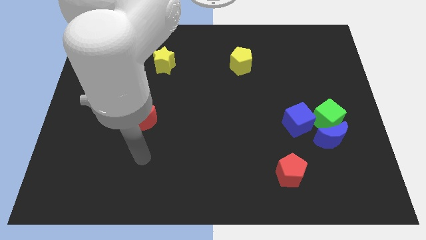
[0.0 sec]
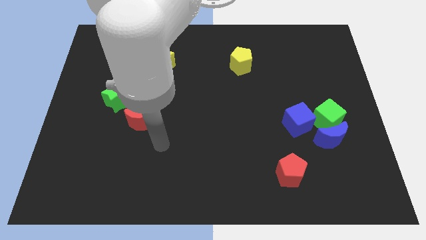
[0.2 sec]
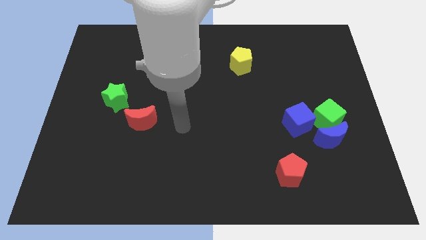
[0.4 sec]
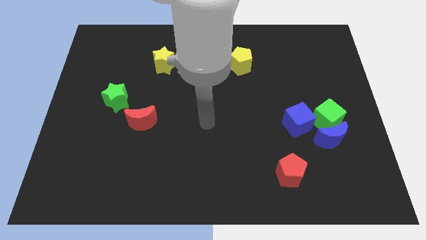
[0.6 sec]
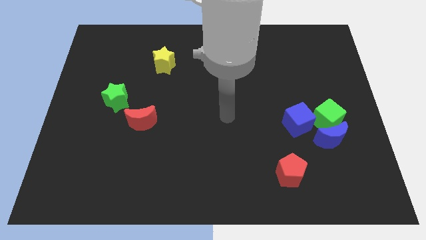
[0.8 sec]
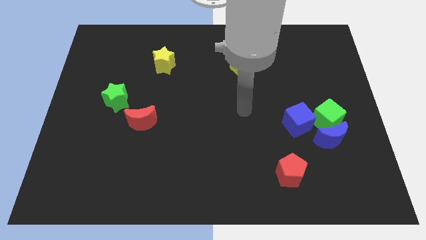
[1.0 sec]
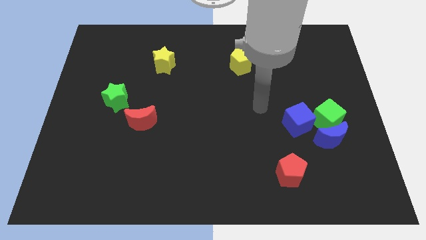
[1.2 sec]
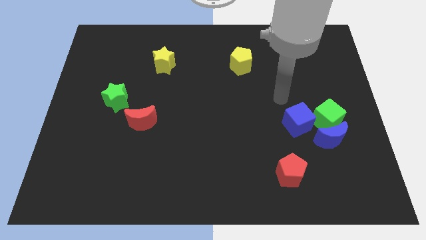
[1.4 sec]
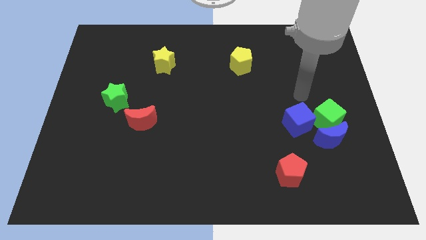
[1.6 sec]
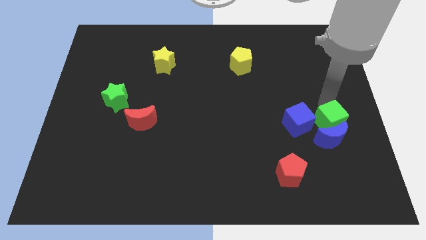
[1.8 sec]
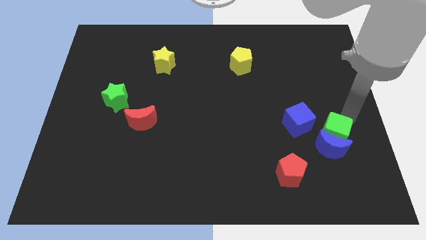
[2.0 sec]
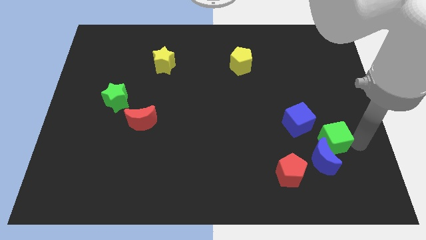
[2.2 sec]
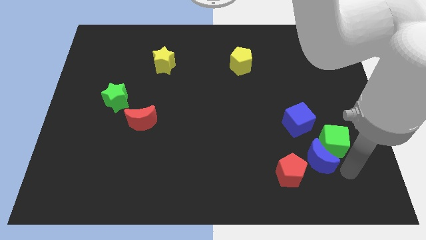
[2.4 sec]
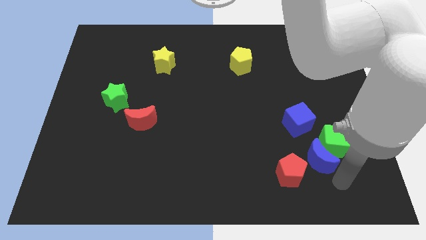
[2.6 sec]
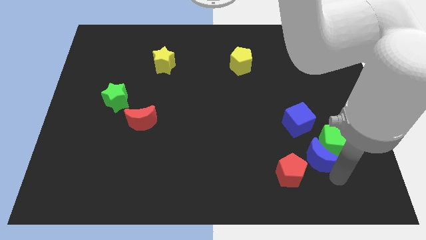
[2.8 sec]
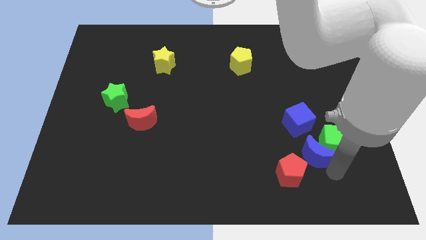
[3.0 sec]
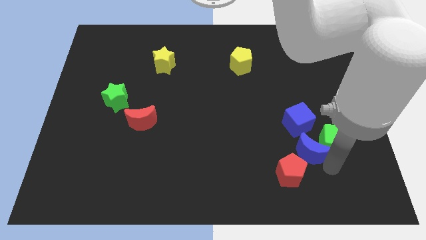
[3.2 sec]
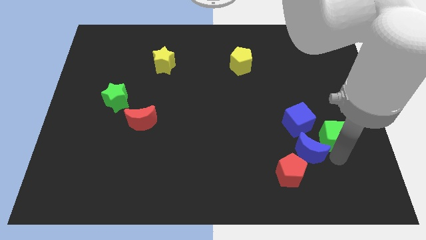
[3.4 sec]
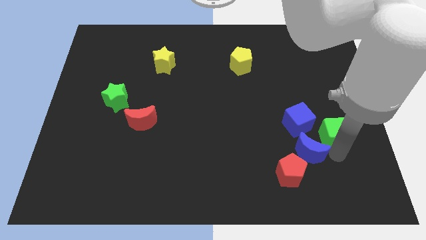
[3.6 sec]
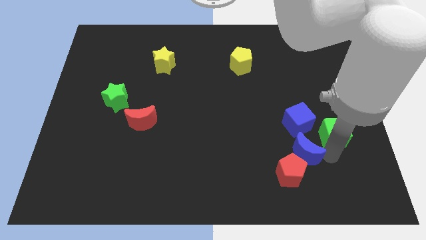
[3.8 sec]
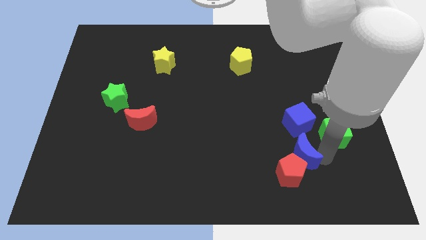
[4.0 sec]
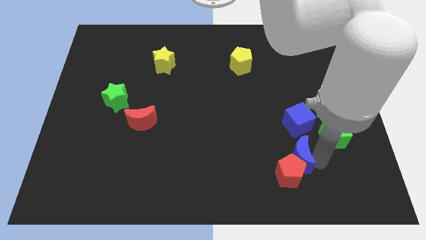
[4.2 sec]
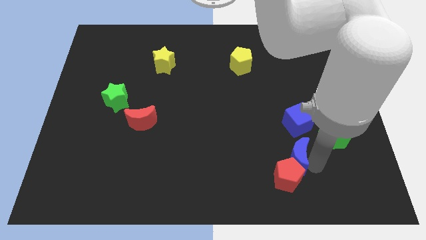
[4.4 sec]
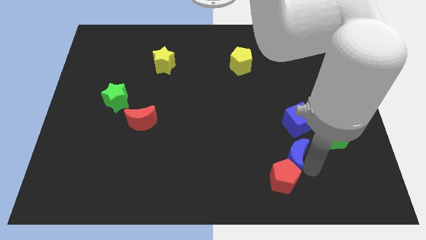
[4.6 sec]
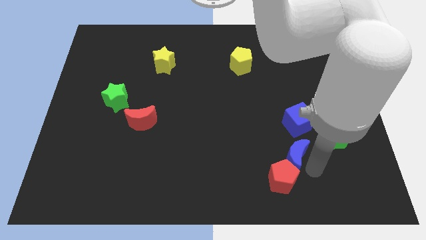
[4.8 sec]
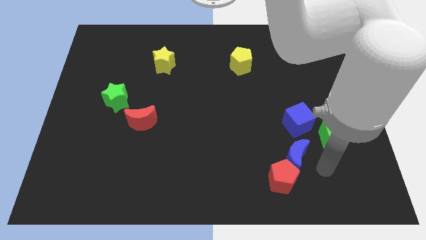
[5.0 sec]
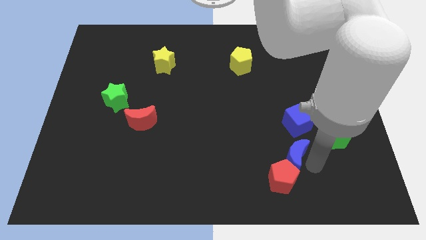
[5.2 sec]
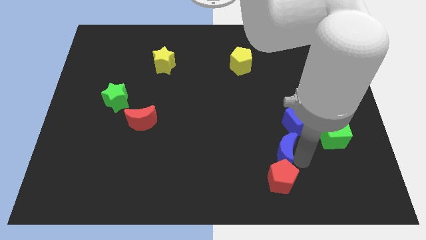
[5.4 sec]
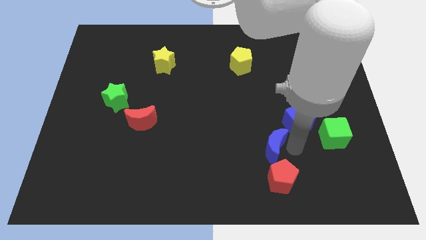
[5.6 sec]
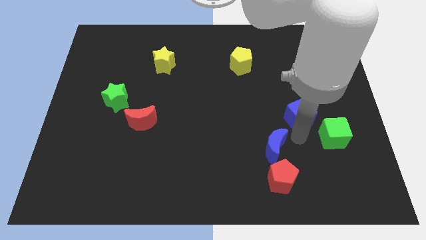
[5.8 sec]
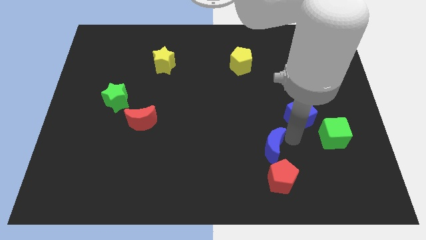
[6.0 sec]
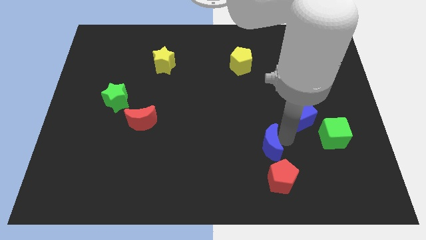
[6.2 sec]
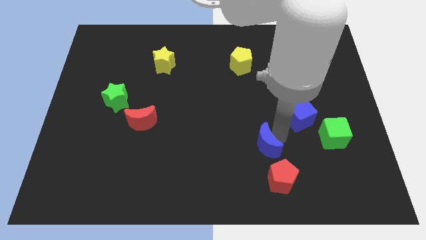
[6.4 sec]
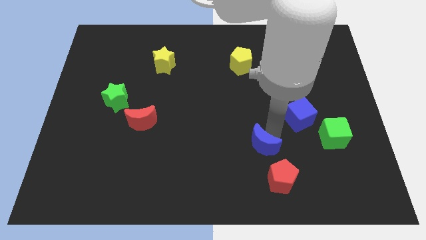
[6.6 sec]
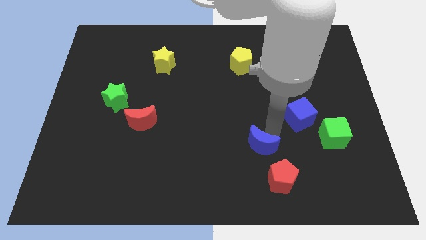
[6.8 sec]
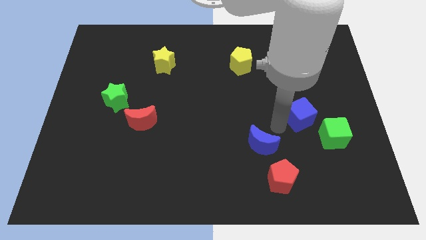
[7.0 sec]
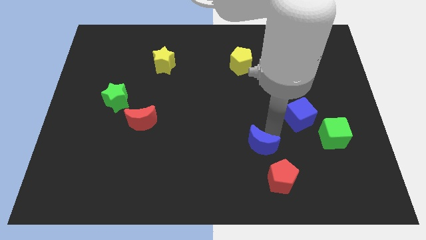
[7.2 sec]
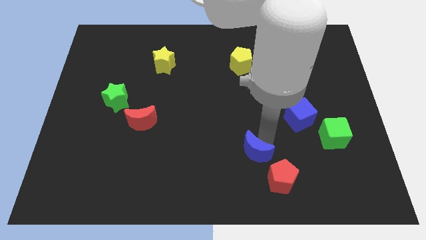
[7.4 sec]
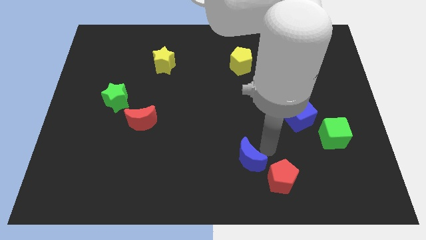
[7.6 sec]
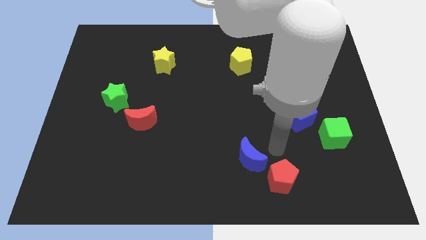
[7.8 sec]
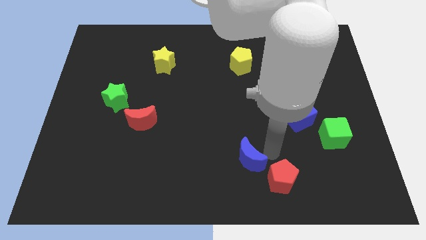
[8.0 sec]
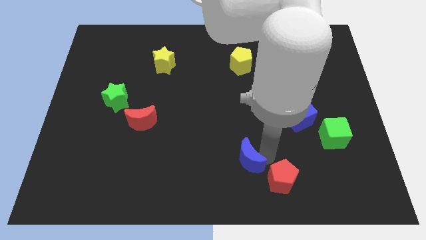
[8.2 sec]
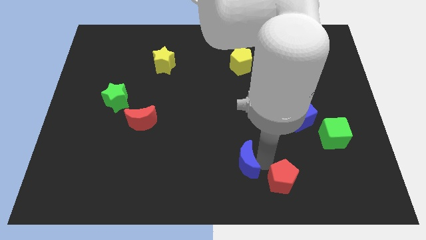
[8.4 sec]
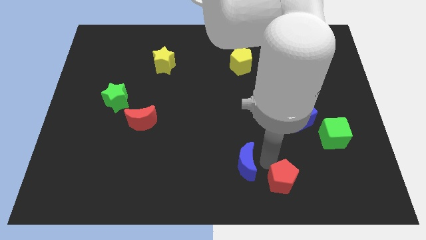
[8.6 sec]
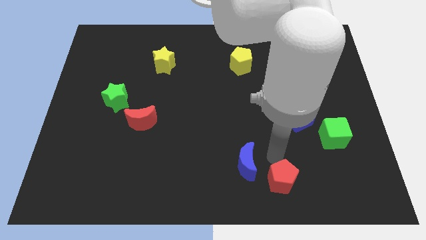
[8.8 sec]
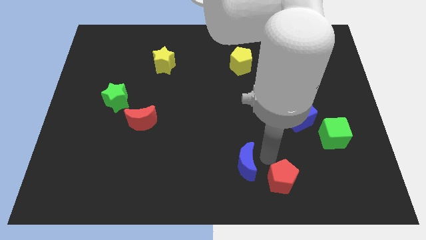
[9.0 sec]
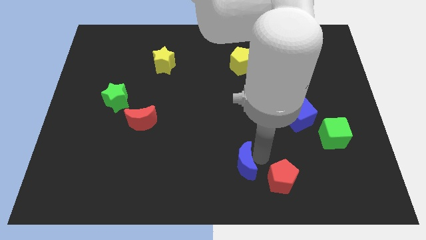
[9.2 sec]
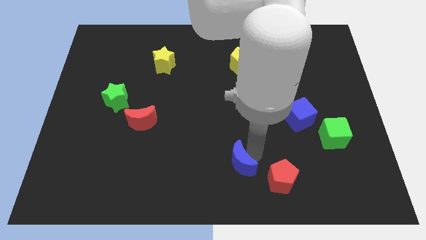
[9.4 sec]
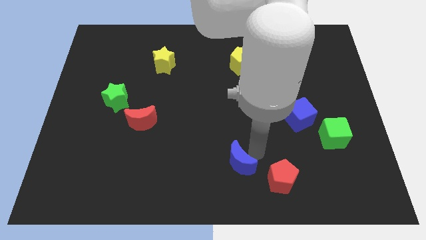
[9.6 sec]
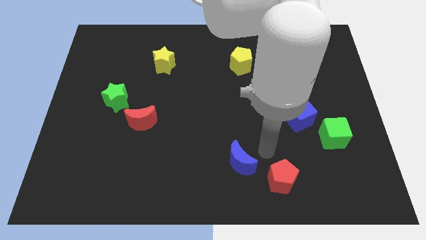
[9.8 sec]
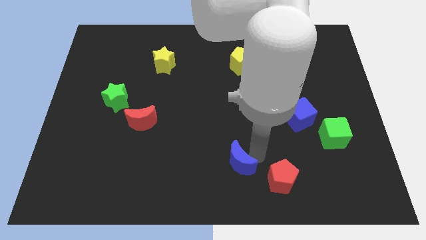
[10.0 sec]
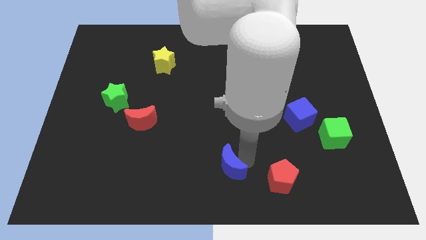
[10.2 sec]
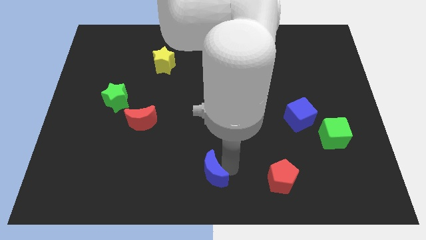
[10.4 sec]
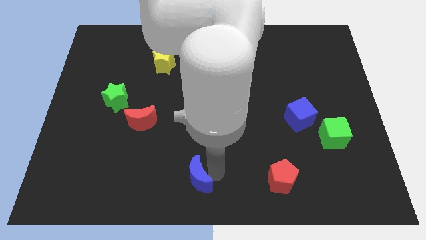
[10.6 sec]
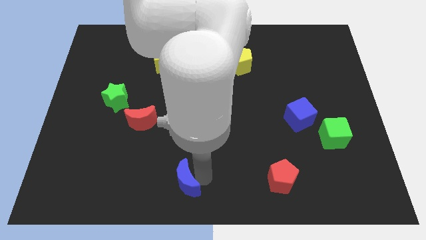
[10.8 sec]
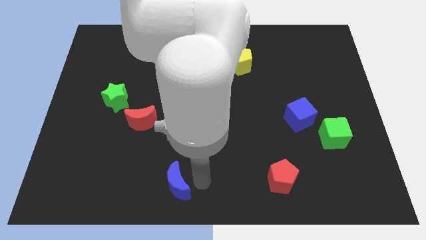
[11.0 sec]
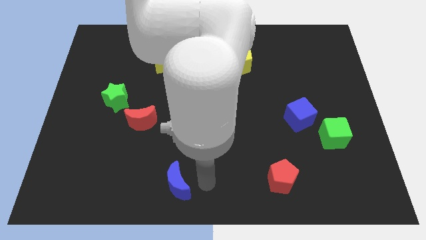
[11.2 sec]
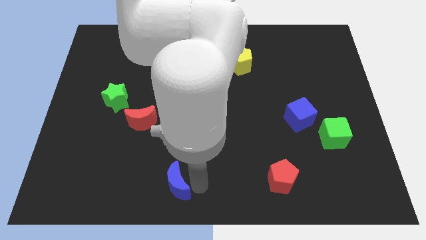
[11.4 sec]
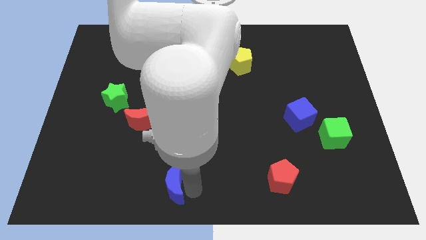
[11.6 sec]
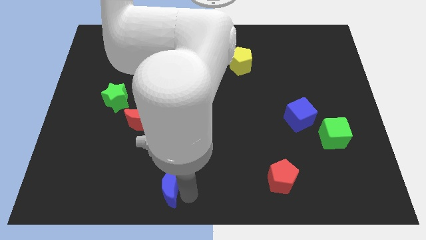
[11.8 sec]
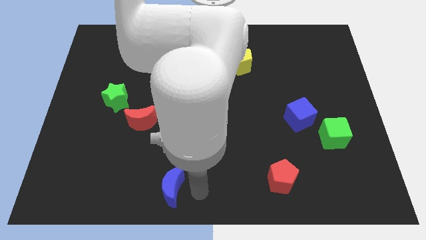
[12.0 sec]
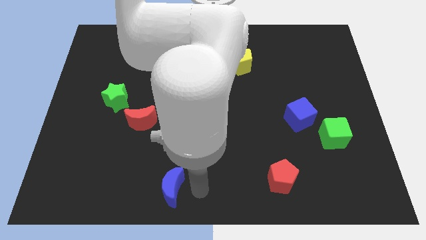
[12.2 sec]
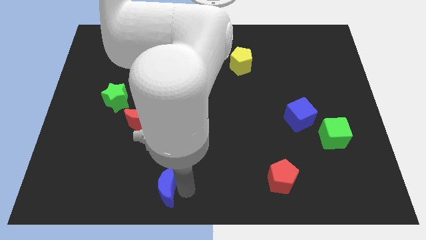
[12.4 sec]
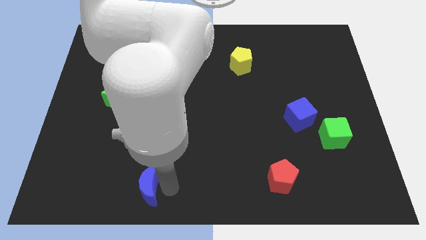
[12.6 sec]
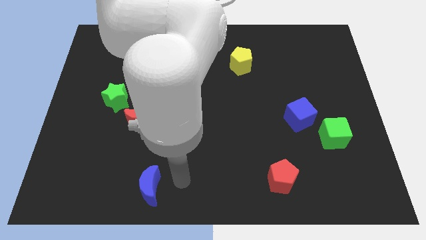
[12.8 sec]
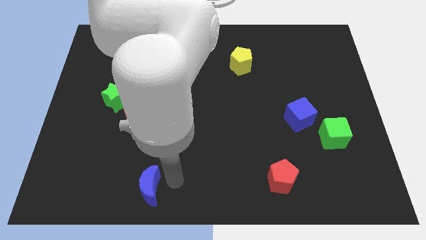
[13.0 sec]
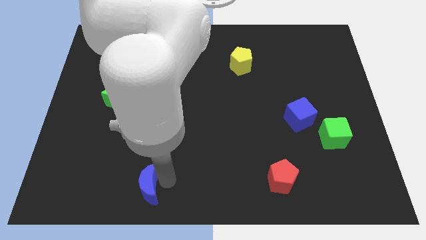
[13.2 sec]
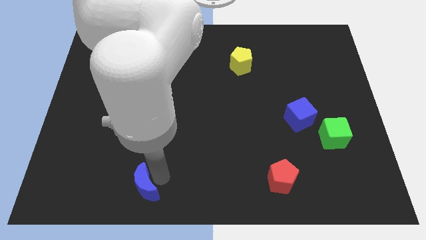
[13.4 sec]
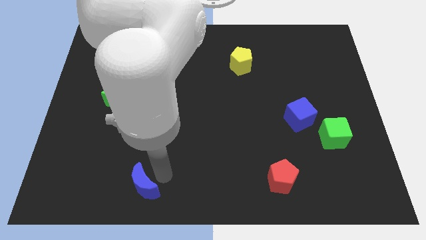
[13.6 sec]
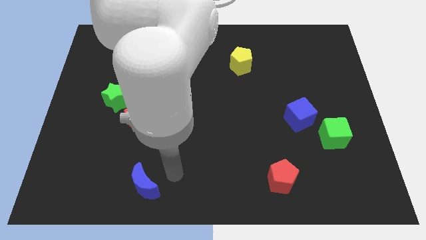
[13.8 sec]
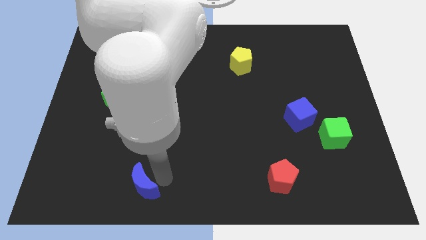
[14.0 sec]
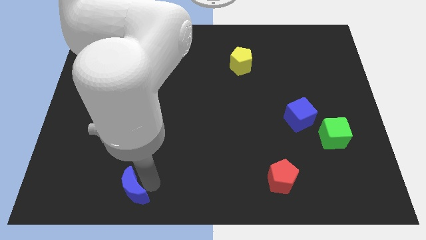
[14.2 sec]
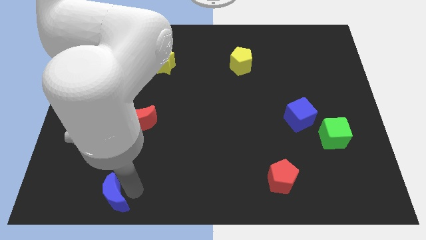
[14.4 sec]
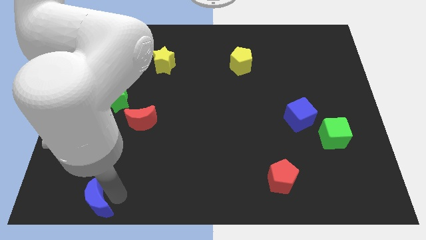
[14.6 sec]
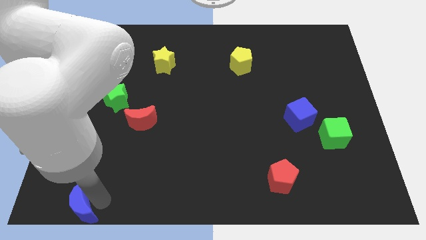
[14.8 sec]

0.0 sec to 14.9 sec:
put the blue moon to the bottom left corner
